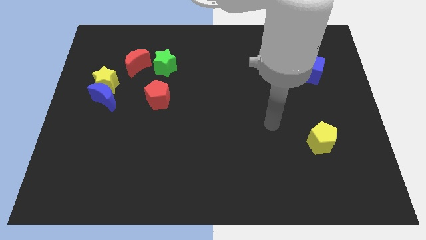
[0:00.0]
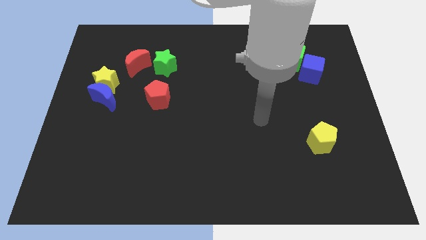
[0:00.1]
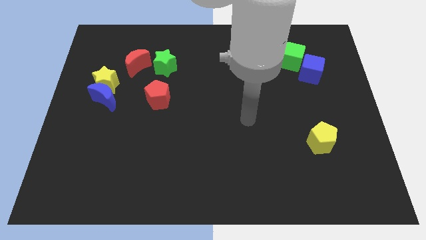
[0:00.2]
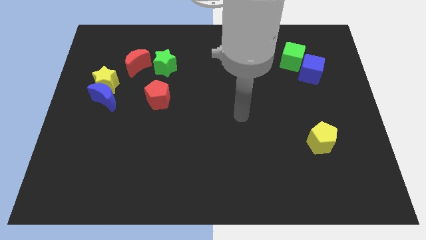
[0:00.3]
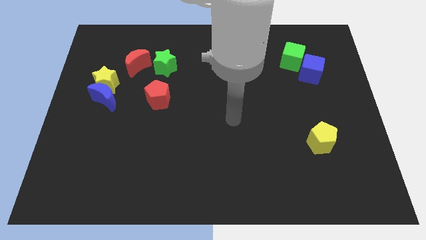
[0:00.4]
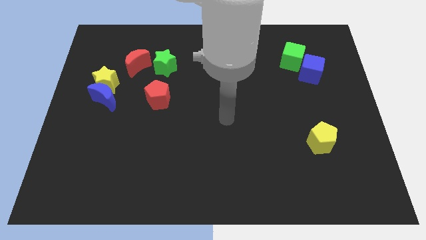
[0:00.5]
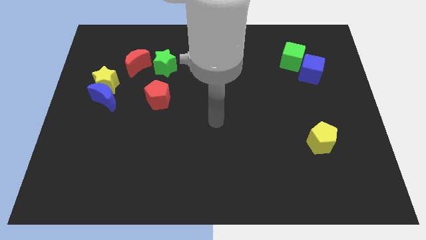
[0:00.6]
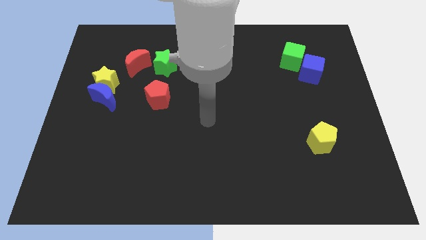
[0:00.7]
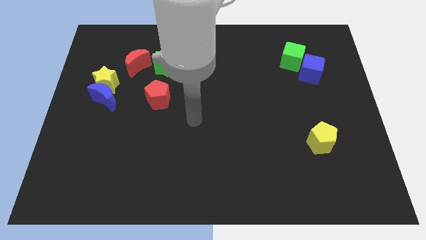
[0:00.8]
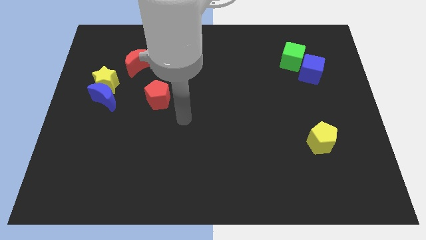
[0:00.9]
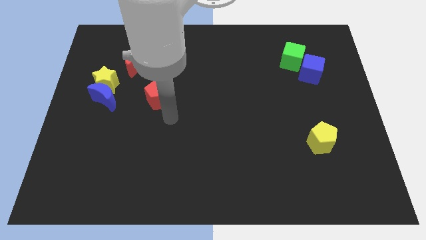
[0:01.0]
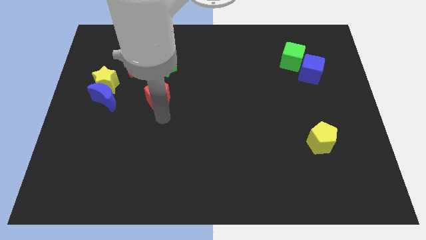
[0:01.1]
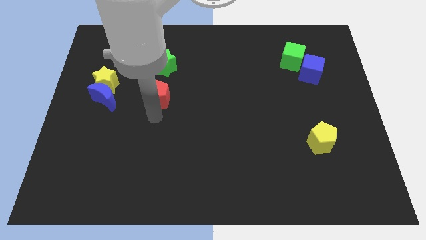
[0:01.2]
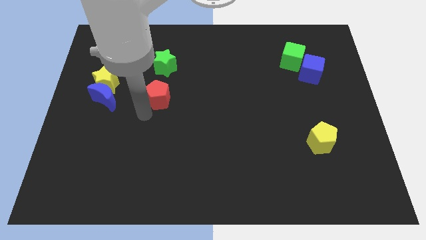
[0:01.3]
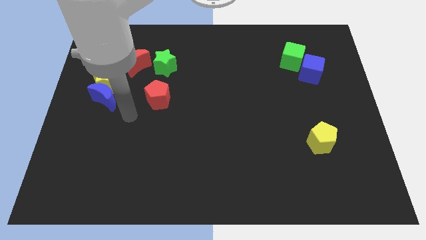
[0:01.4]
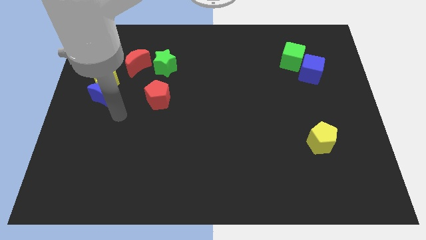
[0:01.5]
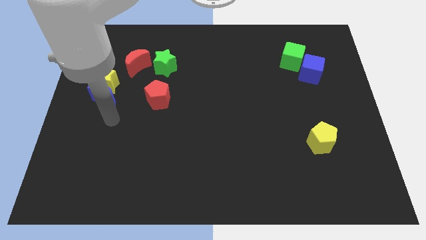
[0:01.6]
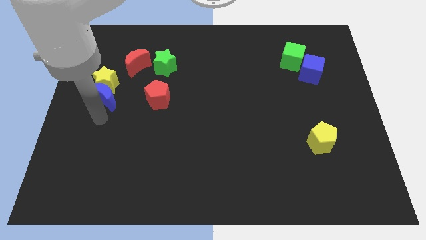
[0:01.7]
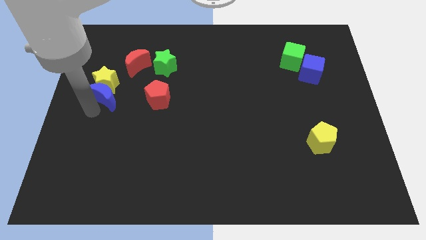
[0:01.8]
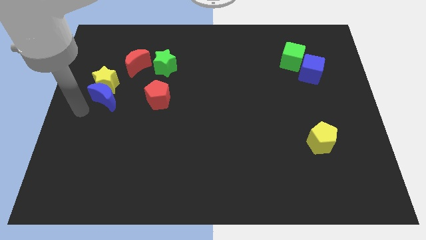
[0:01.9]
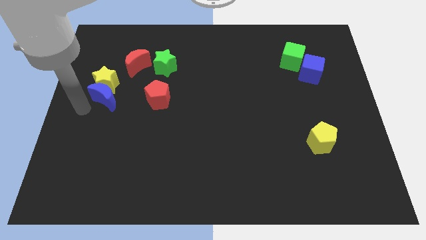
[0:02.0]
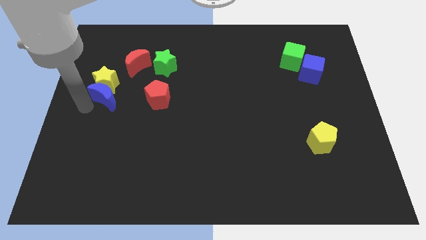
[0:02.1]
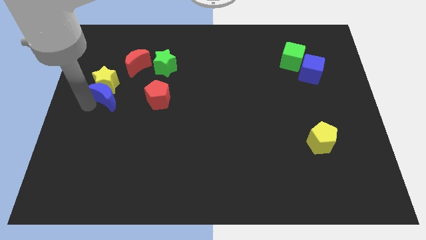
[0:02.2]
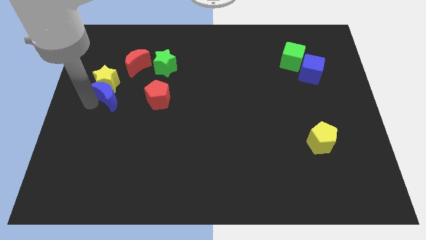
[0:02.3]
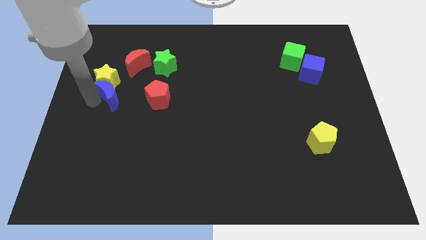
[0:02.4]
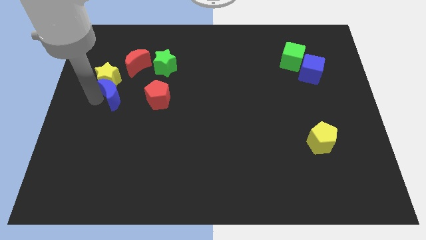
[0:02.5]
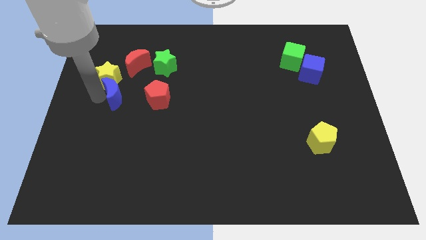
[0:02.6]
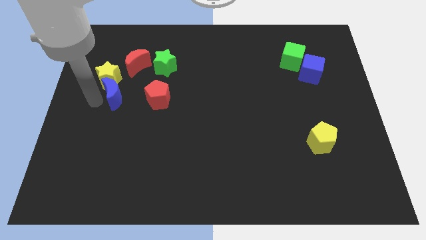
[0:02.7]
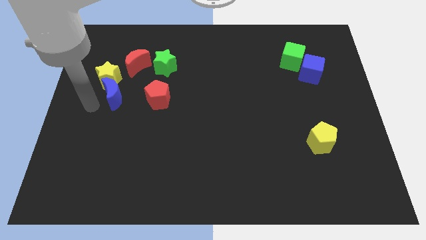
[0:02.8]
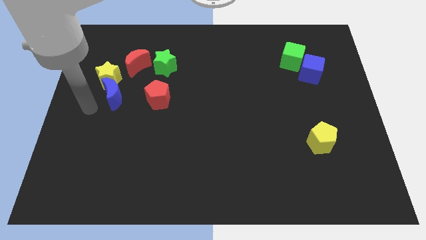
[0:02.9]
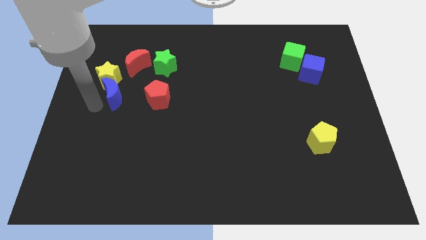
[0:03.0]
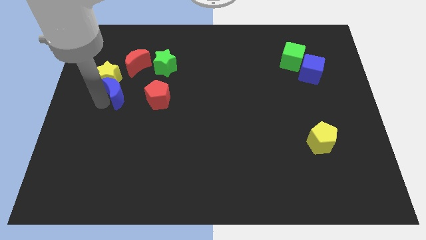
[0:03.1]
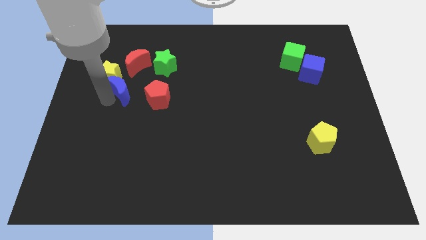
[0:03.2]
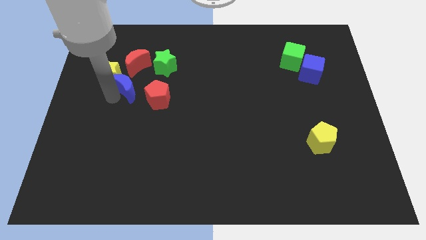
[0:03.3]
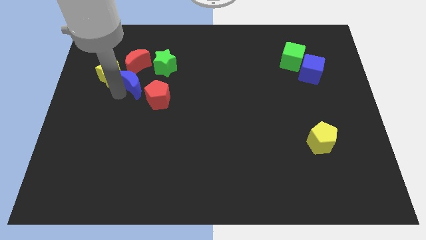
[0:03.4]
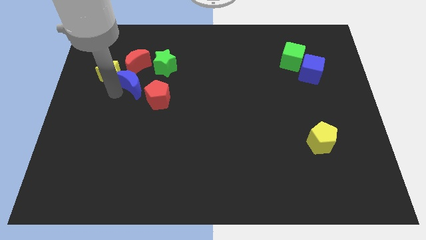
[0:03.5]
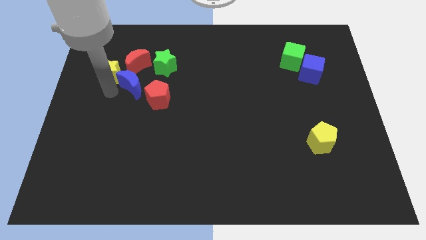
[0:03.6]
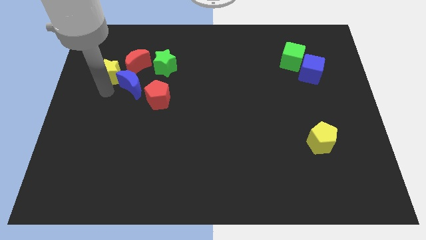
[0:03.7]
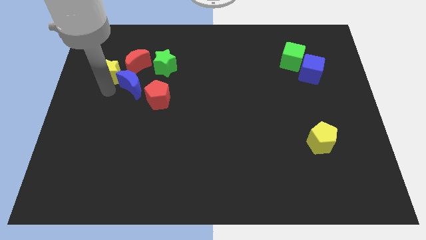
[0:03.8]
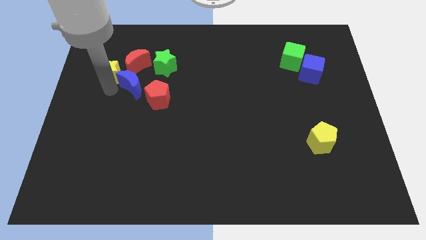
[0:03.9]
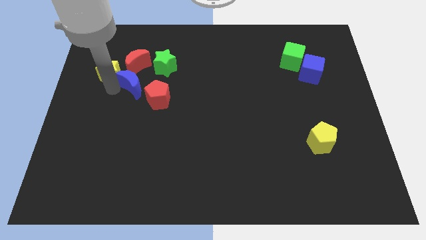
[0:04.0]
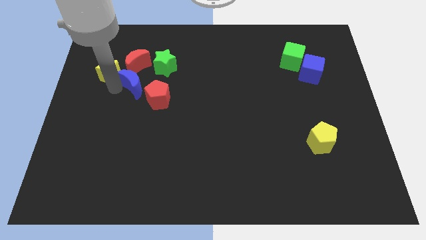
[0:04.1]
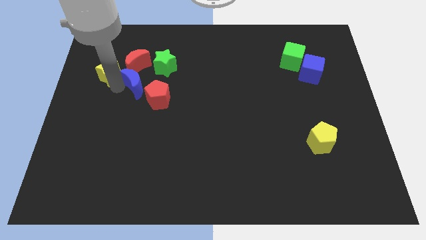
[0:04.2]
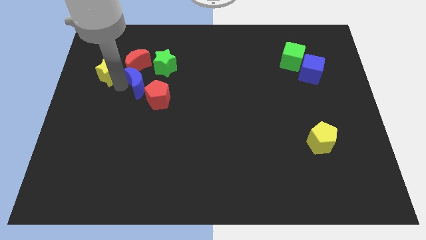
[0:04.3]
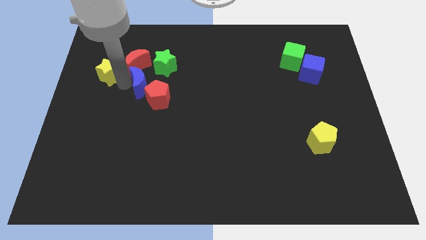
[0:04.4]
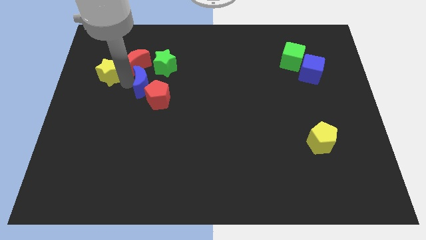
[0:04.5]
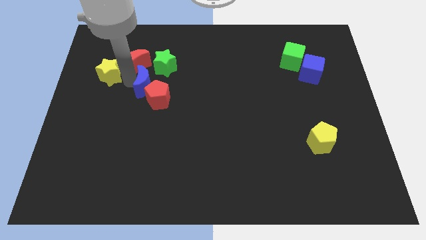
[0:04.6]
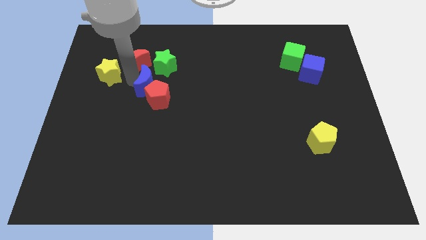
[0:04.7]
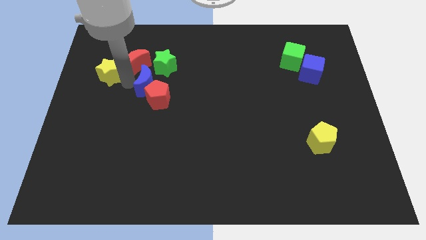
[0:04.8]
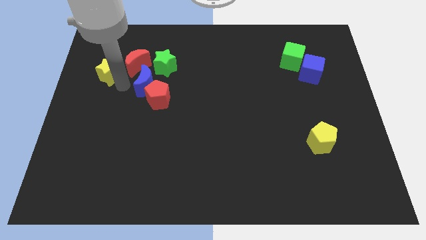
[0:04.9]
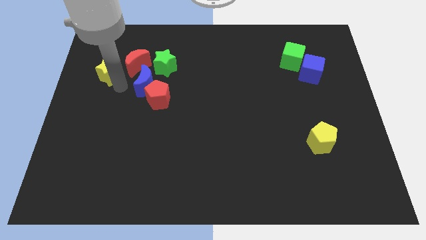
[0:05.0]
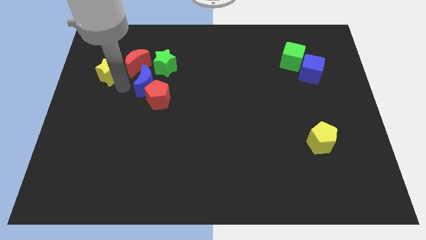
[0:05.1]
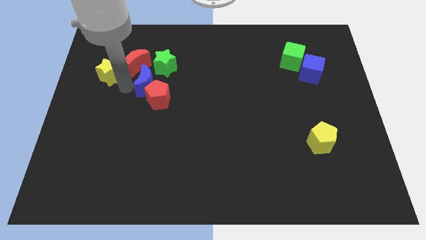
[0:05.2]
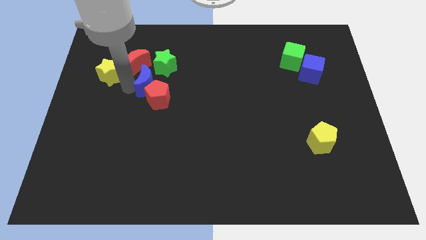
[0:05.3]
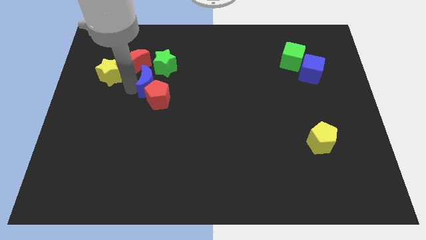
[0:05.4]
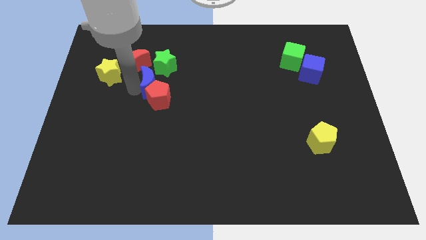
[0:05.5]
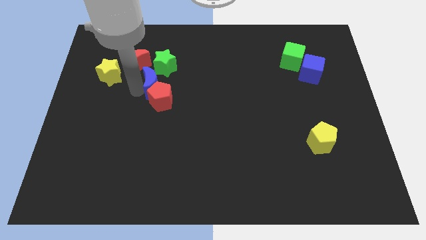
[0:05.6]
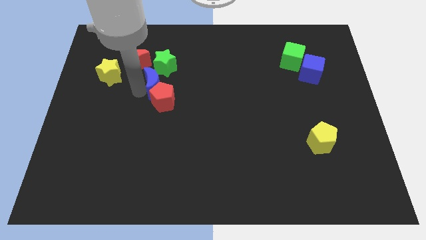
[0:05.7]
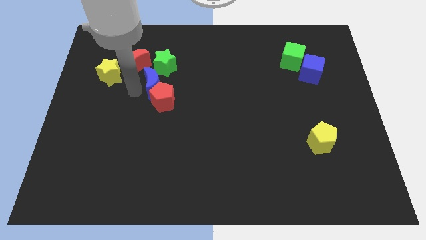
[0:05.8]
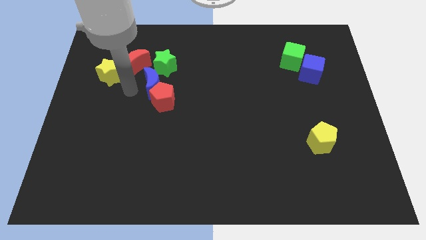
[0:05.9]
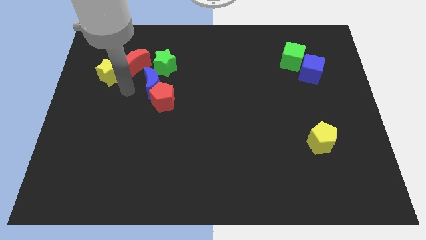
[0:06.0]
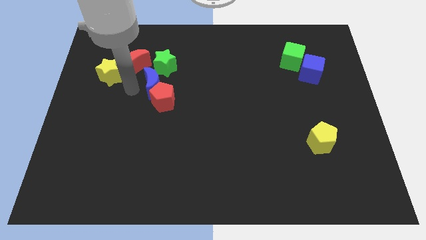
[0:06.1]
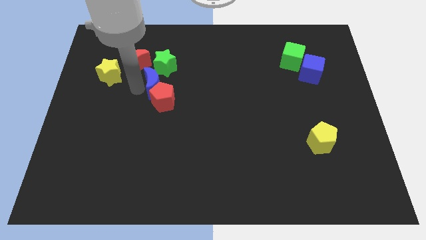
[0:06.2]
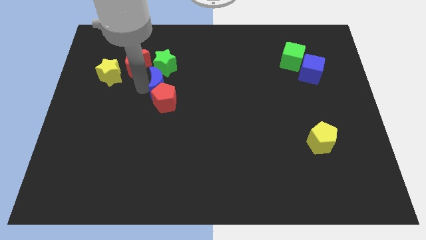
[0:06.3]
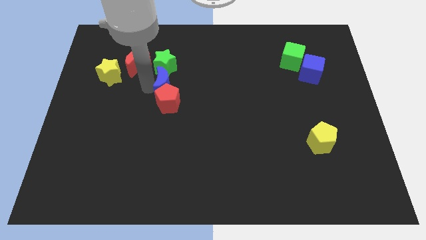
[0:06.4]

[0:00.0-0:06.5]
move the blue moon to the bottom right side of the green star

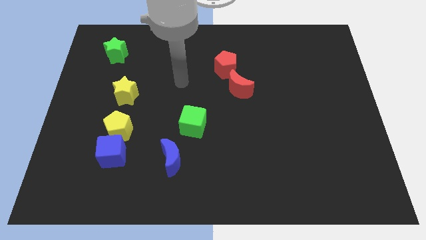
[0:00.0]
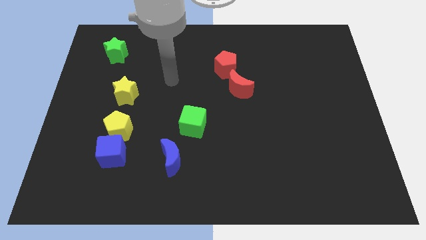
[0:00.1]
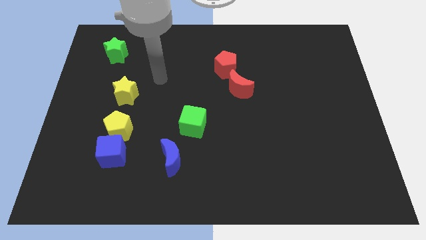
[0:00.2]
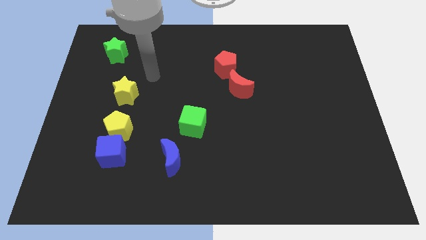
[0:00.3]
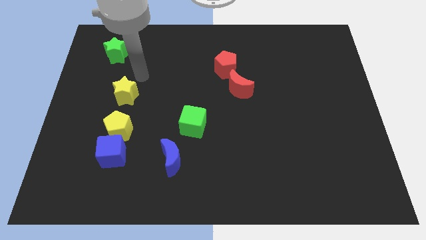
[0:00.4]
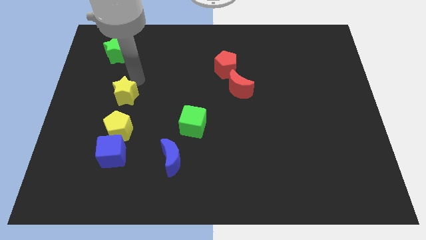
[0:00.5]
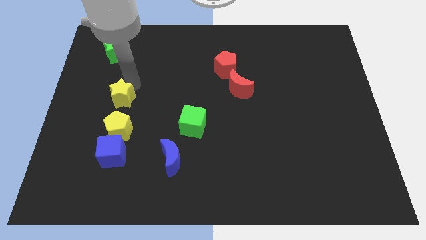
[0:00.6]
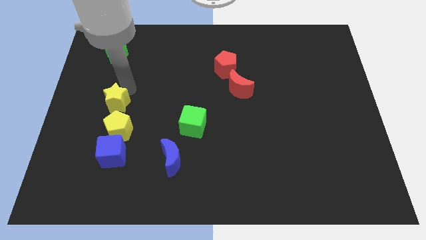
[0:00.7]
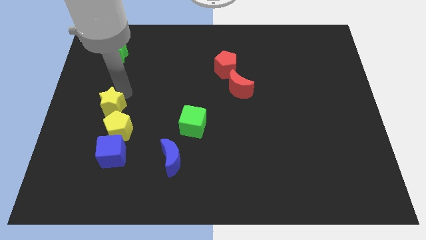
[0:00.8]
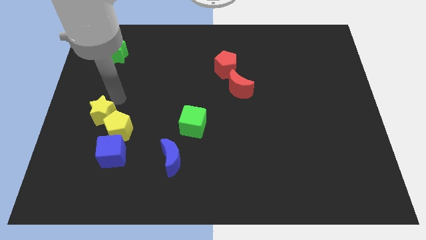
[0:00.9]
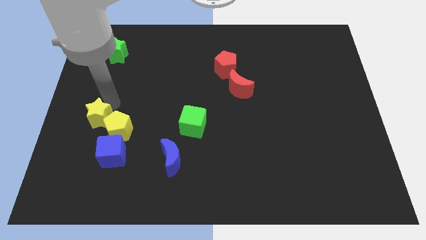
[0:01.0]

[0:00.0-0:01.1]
put the yellow star diagonally up and to the left of the blue cube
